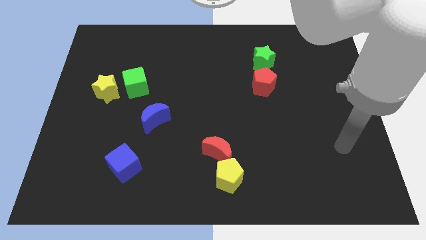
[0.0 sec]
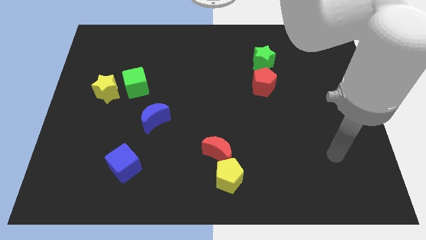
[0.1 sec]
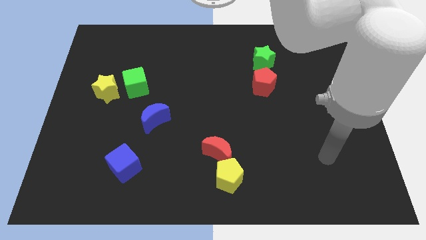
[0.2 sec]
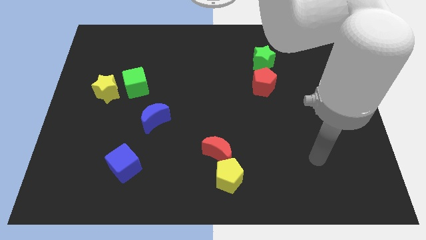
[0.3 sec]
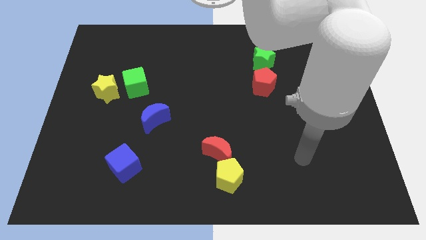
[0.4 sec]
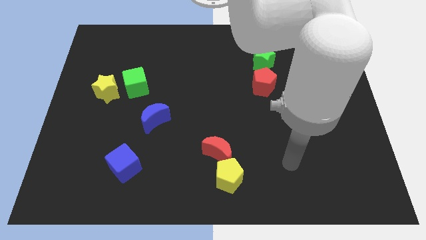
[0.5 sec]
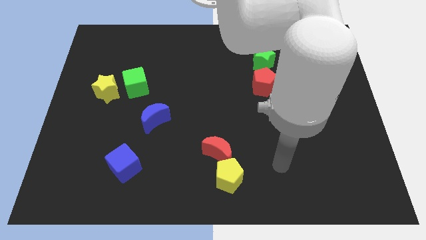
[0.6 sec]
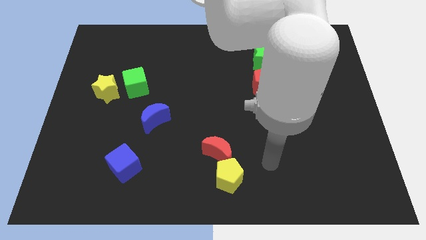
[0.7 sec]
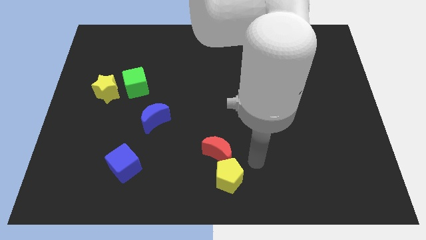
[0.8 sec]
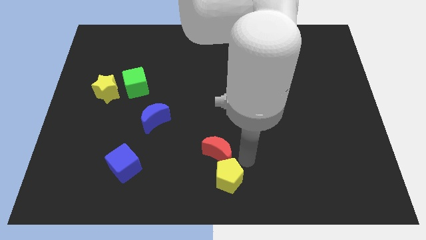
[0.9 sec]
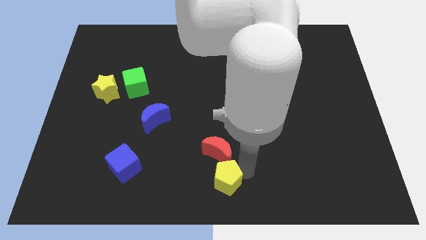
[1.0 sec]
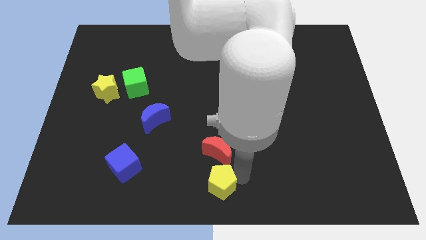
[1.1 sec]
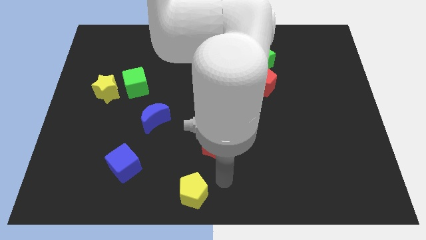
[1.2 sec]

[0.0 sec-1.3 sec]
pull the red moon apart from the yellow pentagon

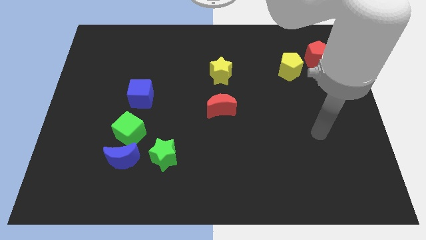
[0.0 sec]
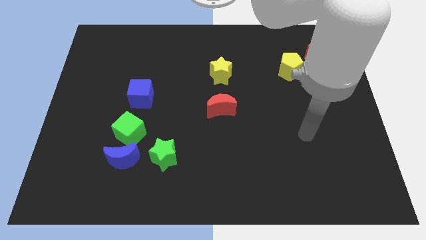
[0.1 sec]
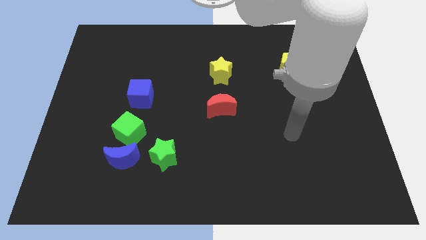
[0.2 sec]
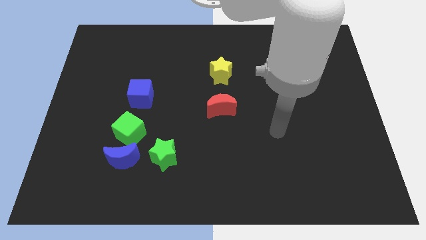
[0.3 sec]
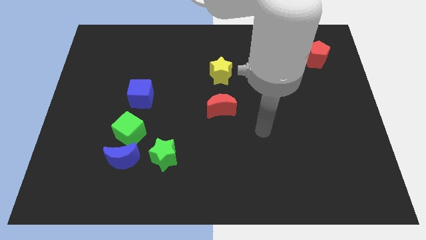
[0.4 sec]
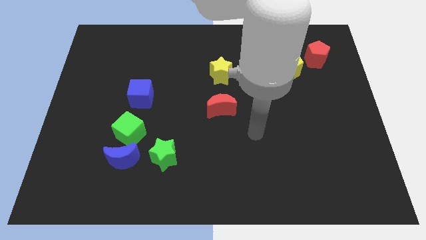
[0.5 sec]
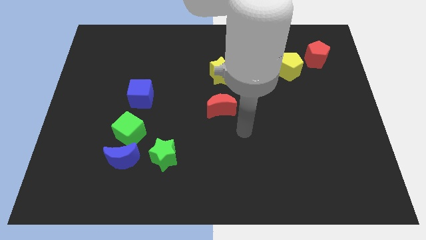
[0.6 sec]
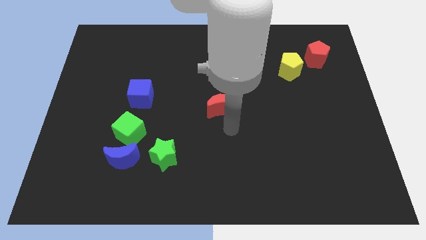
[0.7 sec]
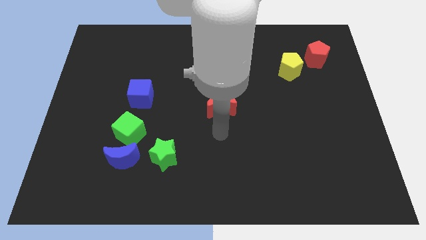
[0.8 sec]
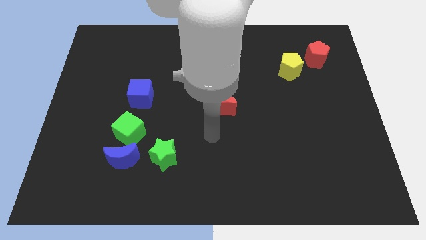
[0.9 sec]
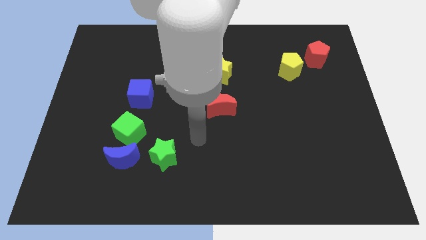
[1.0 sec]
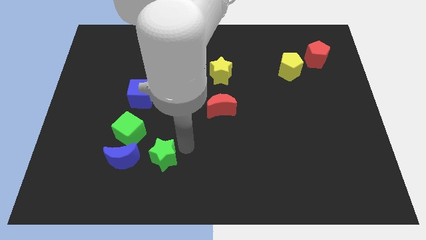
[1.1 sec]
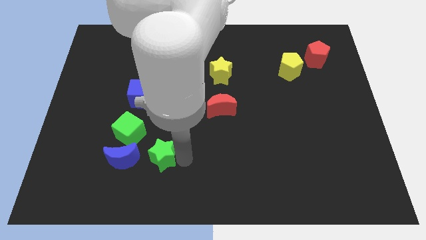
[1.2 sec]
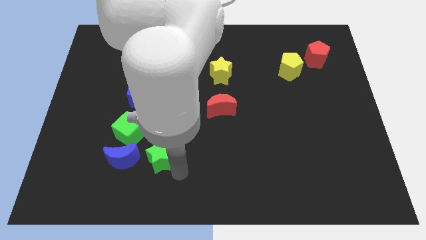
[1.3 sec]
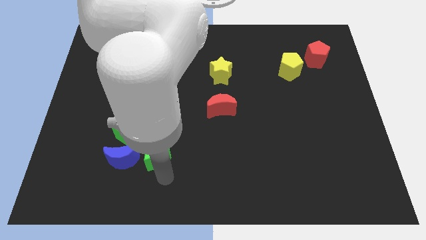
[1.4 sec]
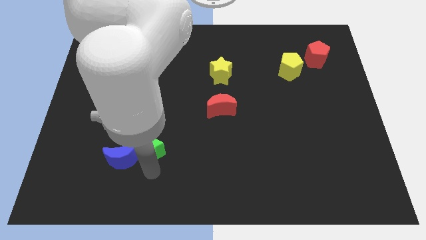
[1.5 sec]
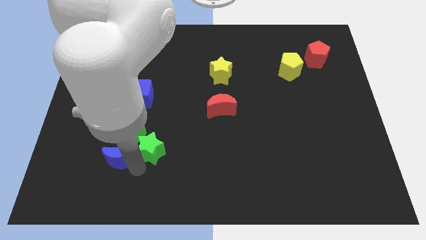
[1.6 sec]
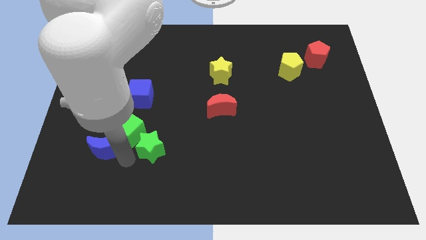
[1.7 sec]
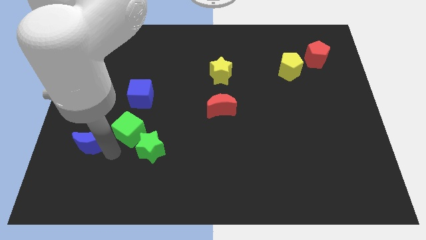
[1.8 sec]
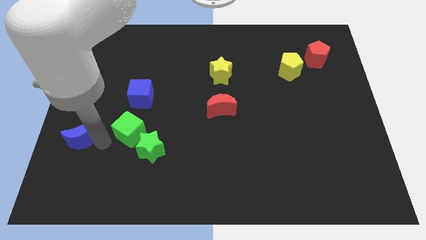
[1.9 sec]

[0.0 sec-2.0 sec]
pull the green cube apart from the blue moon

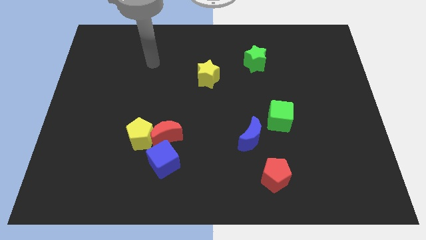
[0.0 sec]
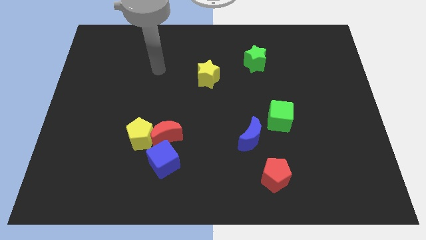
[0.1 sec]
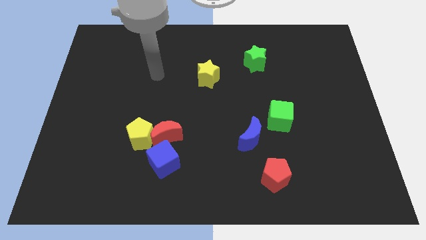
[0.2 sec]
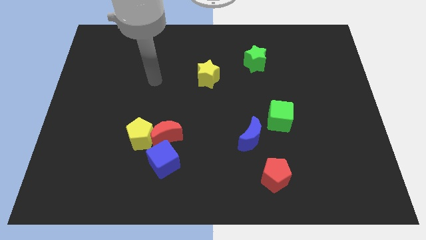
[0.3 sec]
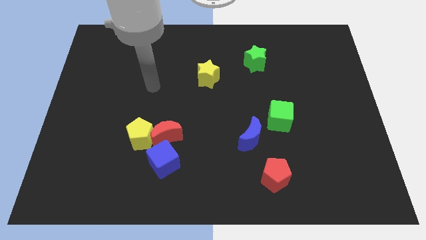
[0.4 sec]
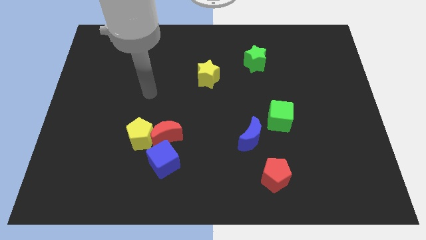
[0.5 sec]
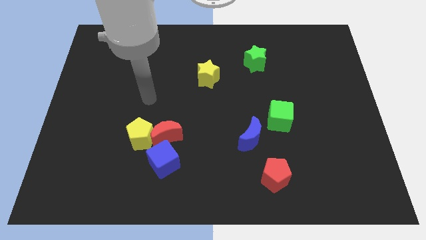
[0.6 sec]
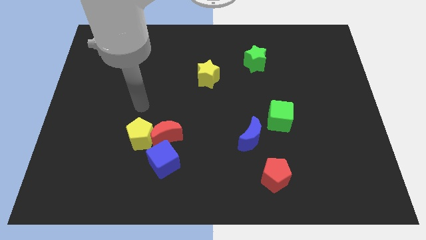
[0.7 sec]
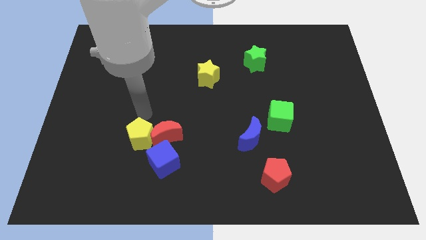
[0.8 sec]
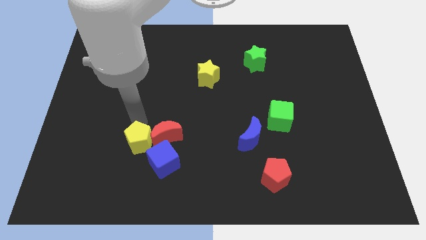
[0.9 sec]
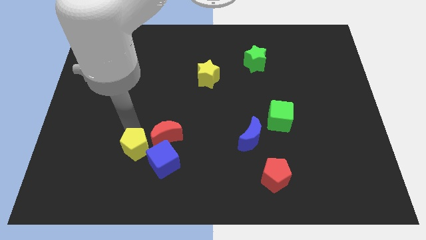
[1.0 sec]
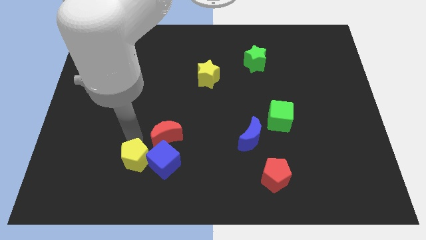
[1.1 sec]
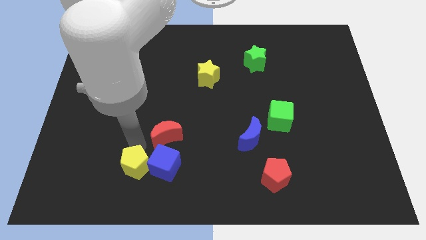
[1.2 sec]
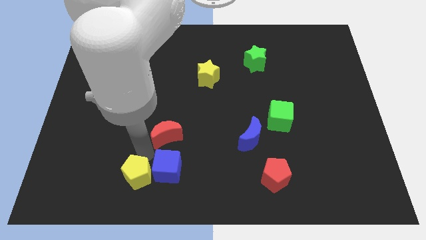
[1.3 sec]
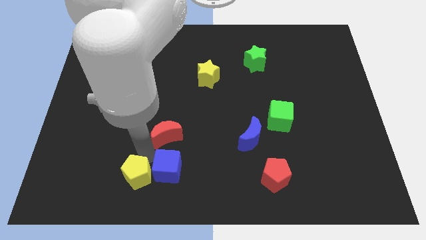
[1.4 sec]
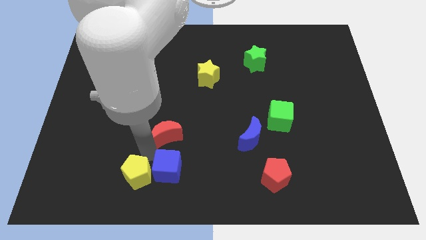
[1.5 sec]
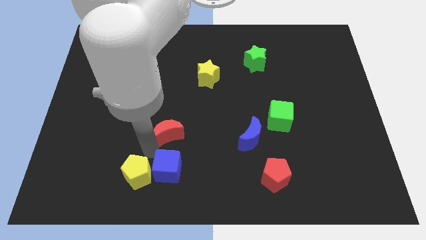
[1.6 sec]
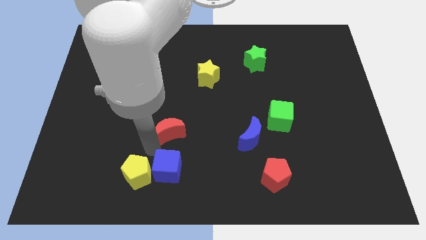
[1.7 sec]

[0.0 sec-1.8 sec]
separate the red moon from the yellow pentagon and blue cube

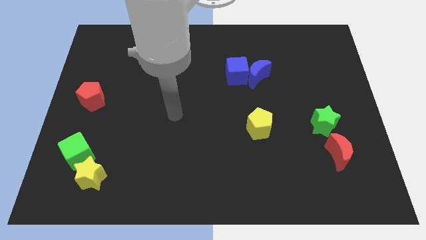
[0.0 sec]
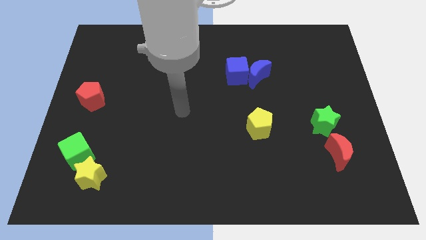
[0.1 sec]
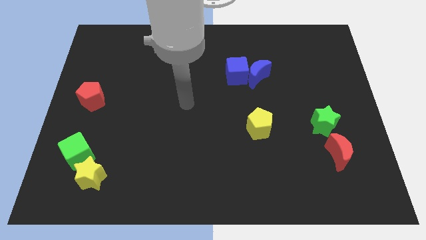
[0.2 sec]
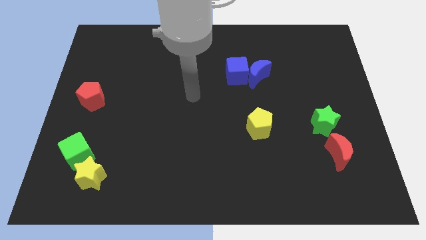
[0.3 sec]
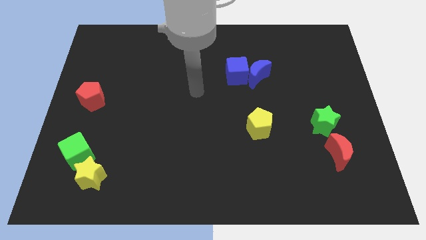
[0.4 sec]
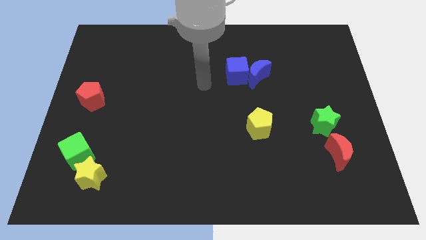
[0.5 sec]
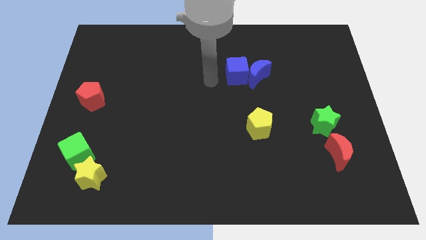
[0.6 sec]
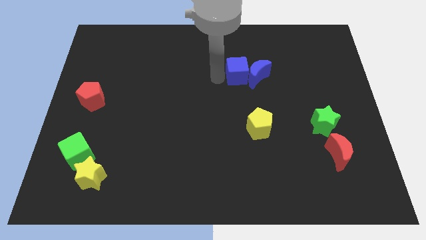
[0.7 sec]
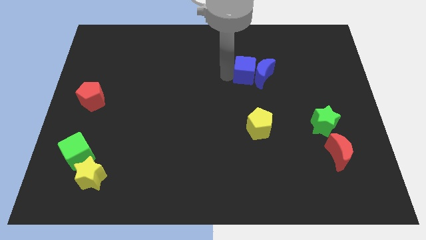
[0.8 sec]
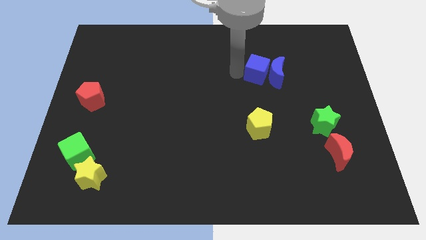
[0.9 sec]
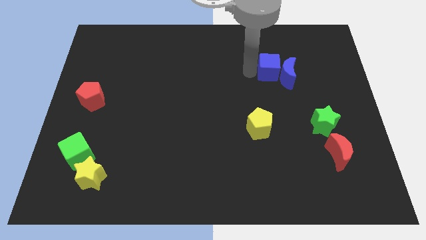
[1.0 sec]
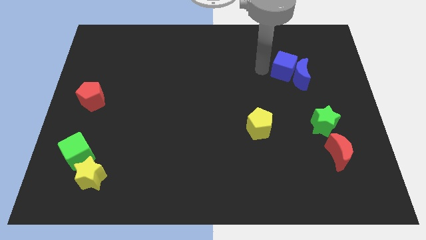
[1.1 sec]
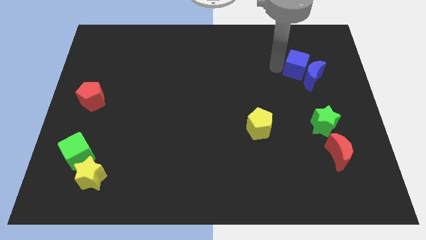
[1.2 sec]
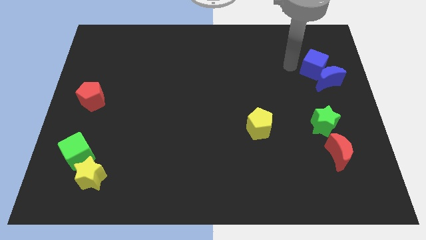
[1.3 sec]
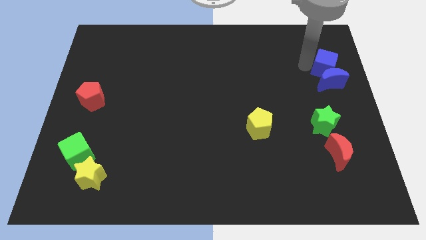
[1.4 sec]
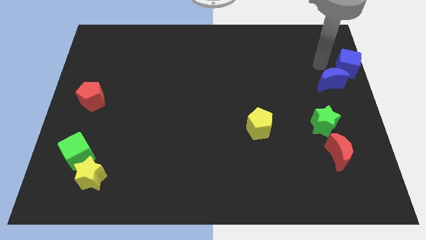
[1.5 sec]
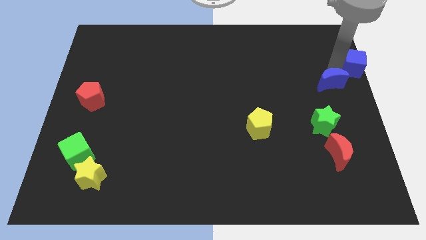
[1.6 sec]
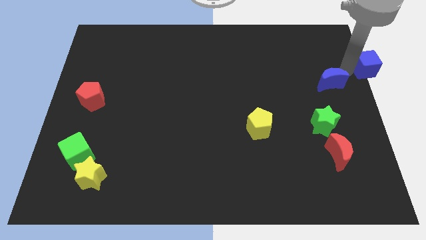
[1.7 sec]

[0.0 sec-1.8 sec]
separate the blue moon from the blue cube

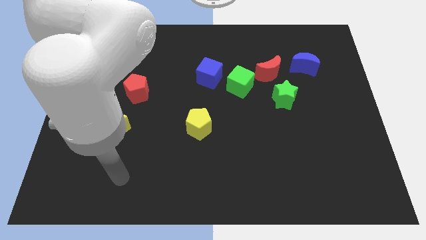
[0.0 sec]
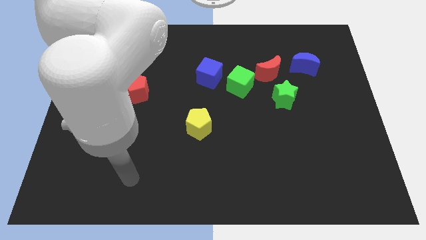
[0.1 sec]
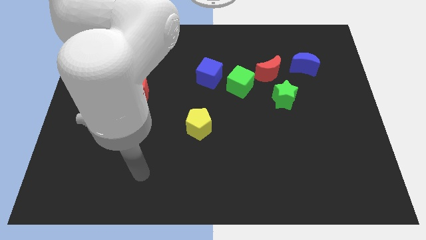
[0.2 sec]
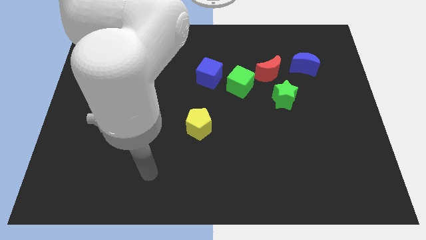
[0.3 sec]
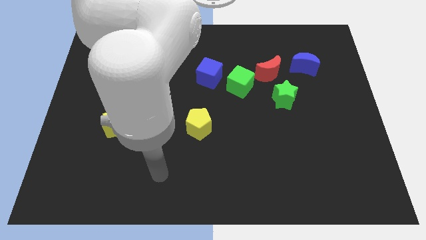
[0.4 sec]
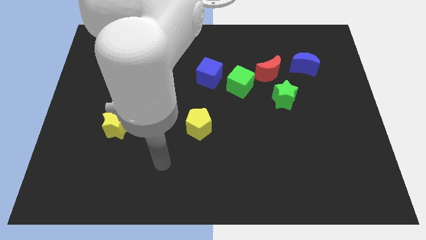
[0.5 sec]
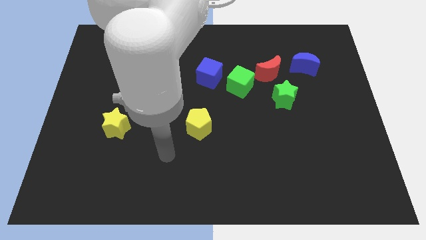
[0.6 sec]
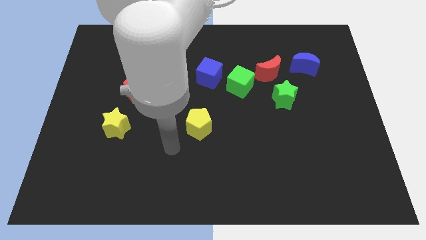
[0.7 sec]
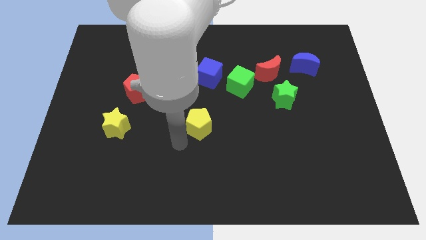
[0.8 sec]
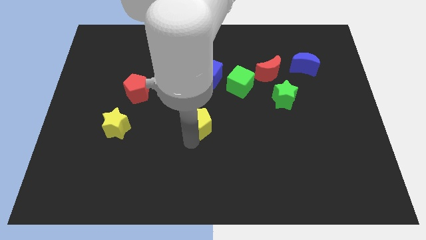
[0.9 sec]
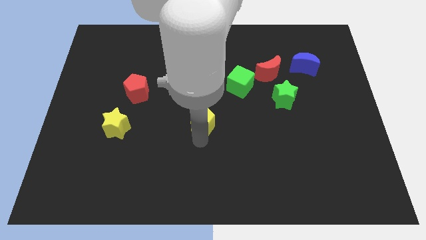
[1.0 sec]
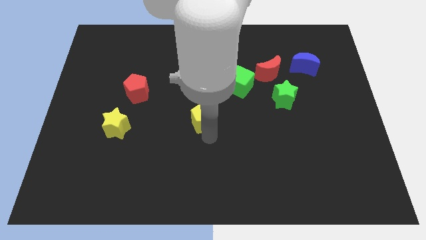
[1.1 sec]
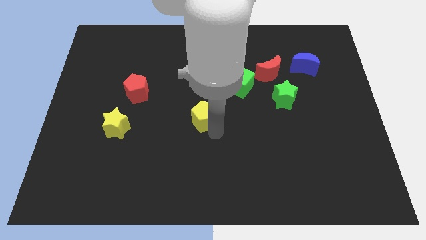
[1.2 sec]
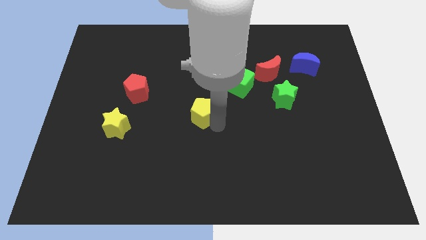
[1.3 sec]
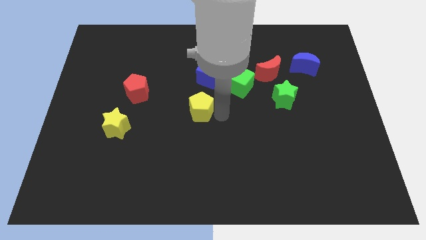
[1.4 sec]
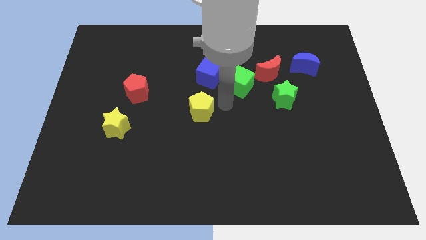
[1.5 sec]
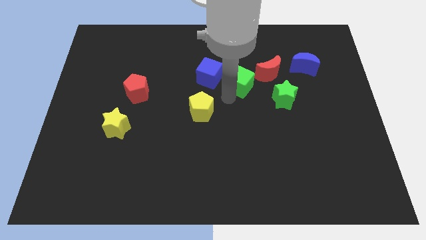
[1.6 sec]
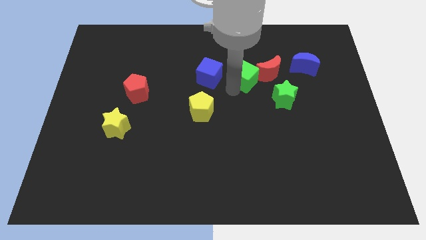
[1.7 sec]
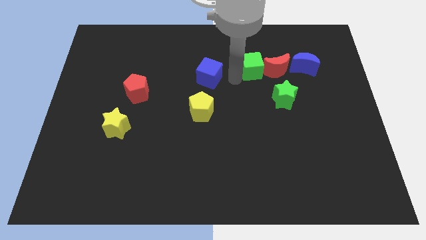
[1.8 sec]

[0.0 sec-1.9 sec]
separate the blue cube from the green cube

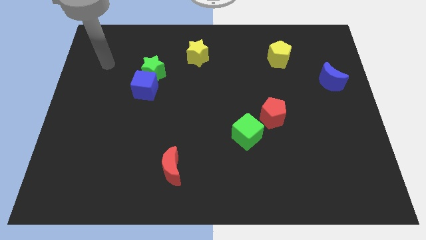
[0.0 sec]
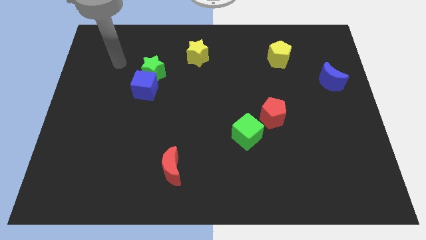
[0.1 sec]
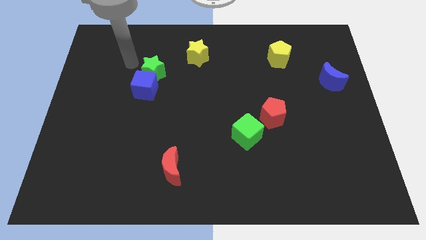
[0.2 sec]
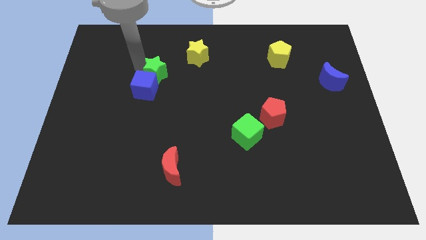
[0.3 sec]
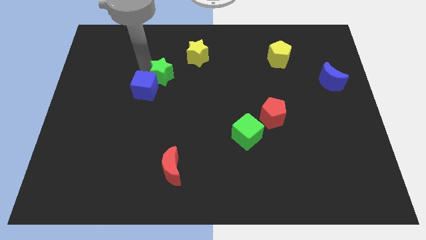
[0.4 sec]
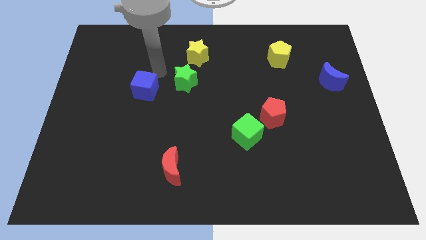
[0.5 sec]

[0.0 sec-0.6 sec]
pull the blue cube apart from the green star
